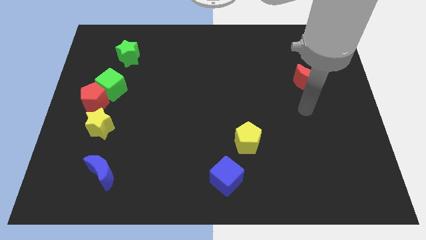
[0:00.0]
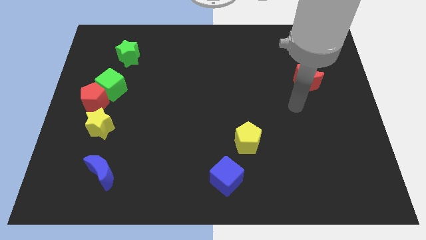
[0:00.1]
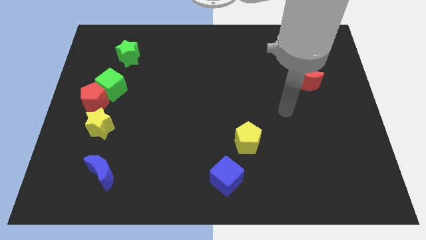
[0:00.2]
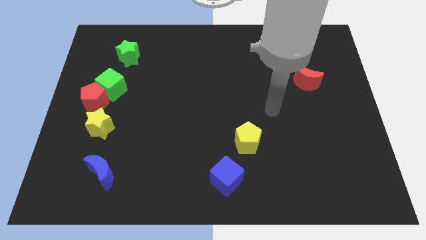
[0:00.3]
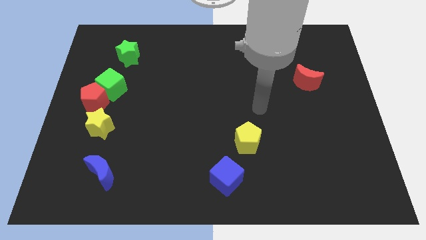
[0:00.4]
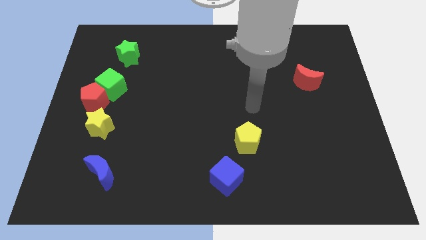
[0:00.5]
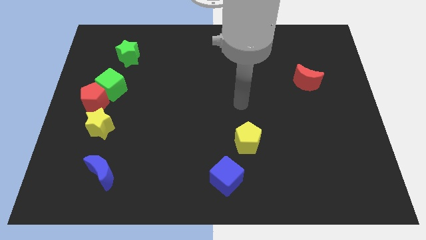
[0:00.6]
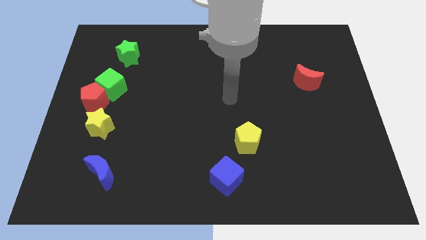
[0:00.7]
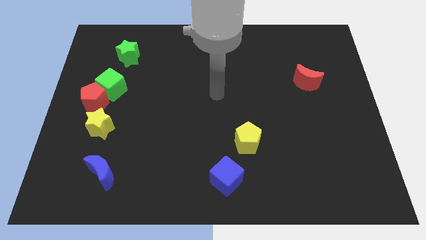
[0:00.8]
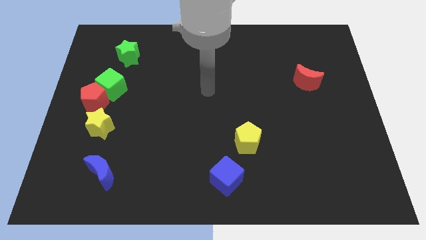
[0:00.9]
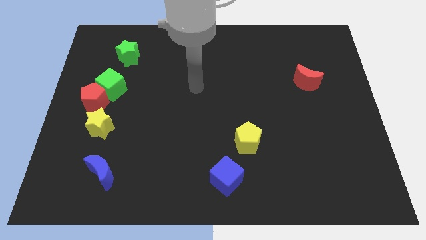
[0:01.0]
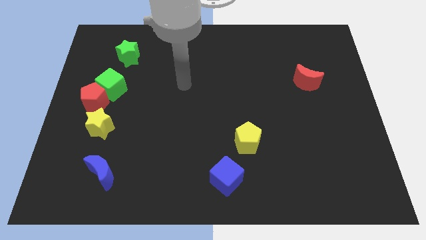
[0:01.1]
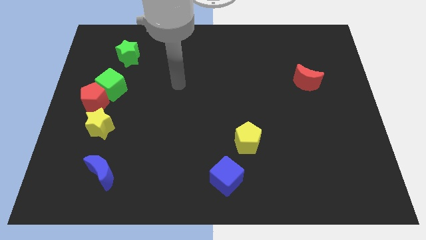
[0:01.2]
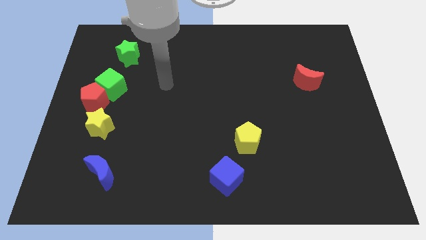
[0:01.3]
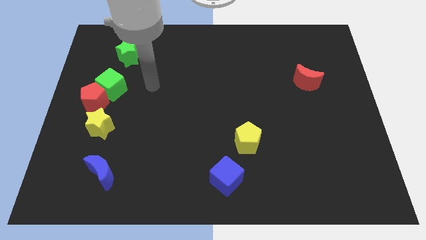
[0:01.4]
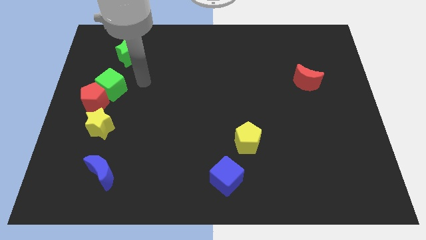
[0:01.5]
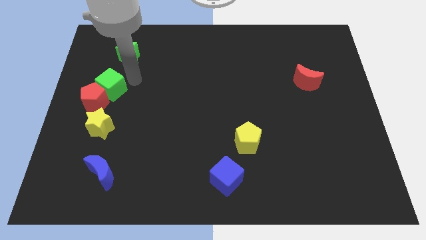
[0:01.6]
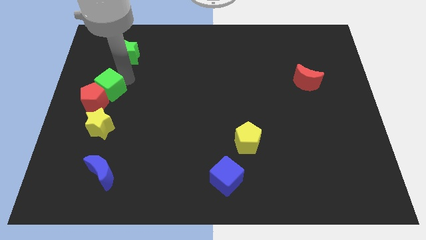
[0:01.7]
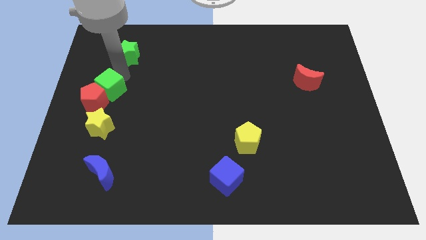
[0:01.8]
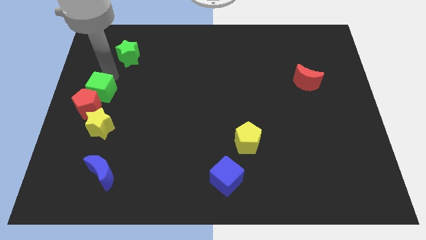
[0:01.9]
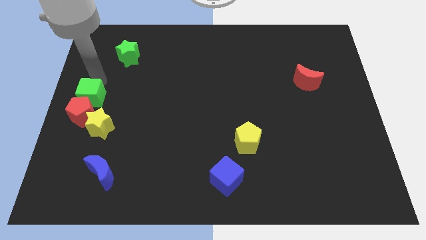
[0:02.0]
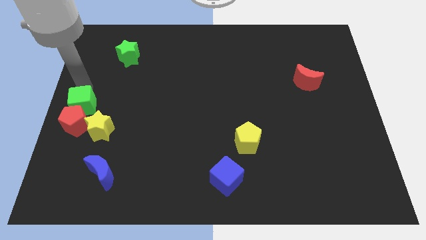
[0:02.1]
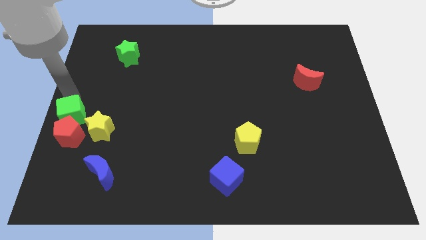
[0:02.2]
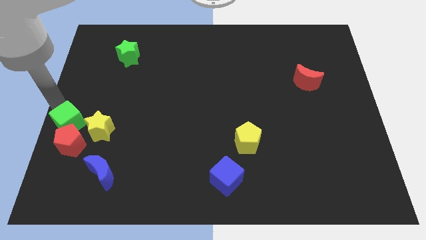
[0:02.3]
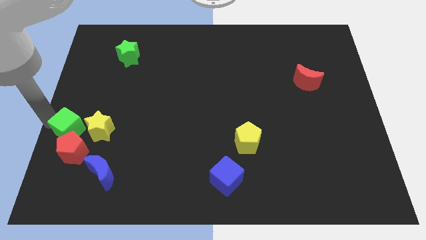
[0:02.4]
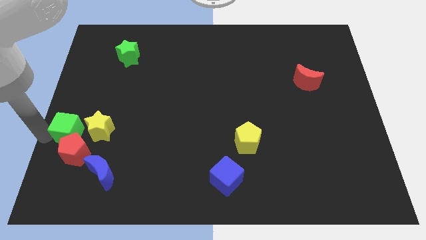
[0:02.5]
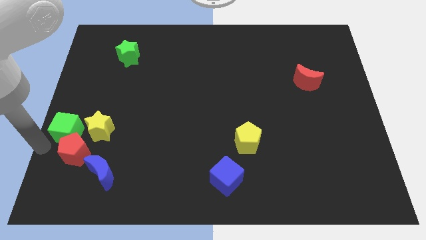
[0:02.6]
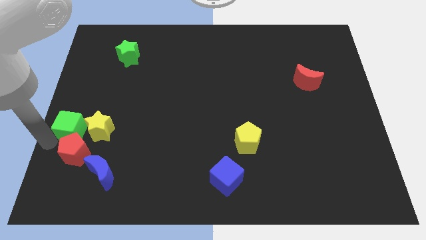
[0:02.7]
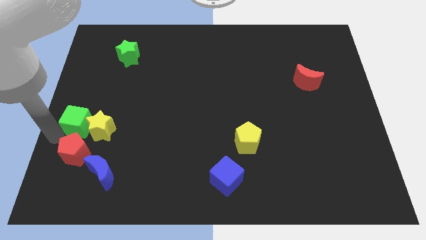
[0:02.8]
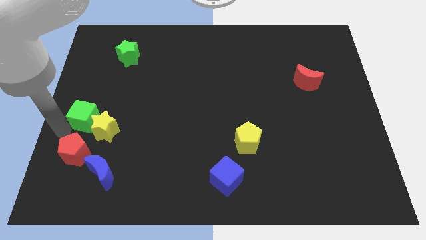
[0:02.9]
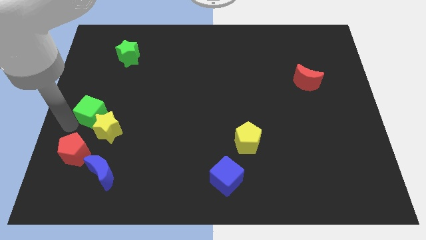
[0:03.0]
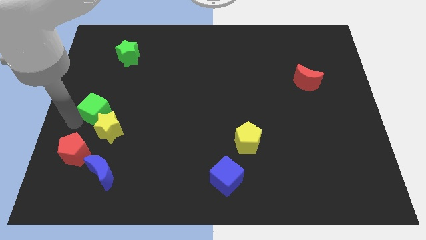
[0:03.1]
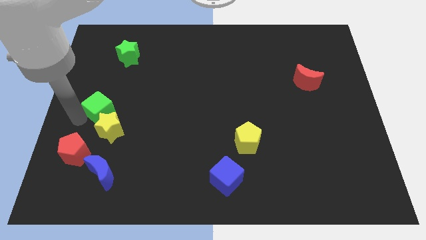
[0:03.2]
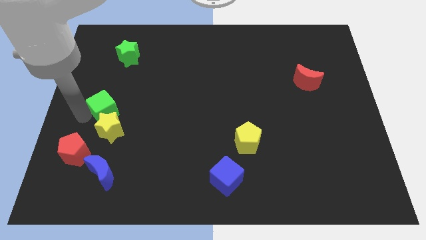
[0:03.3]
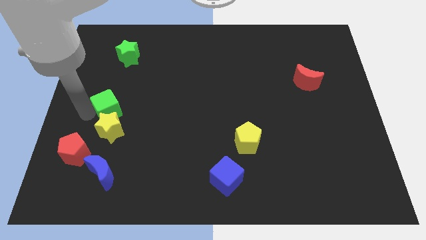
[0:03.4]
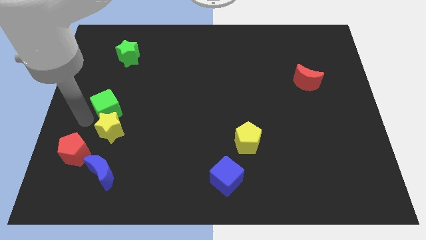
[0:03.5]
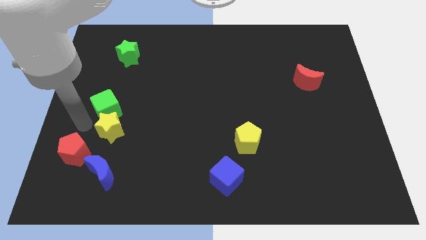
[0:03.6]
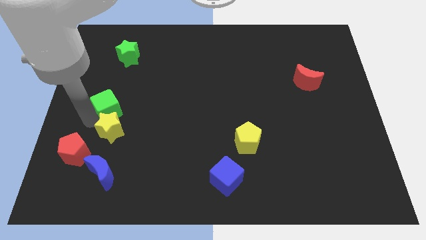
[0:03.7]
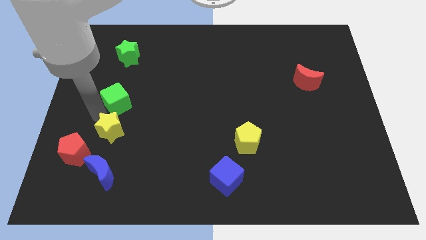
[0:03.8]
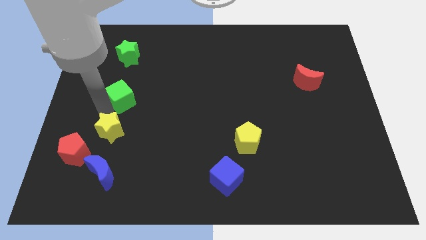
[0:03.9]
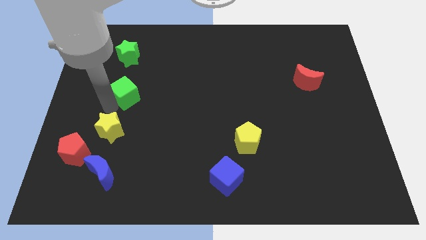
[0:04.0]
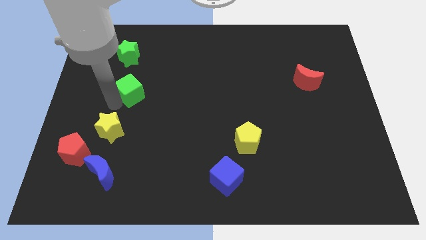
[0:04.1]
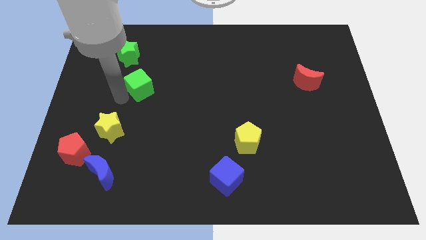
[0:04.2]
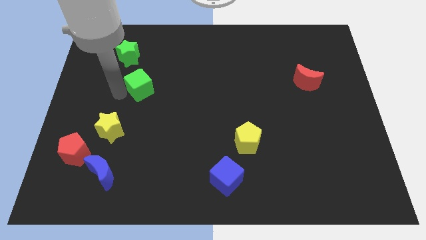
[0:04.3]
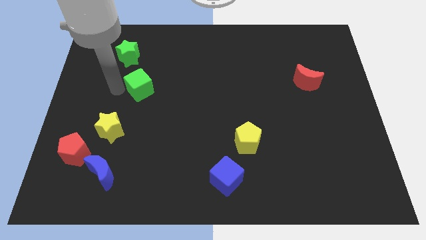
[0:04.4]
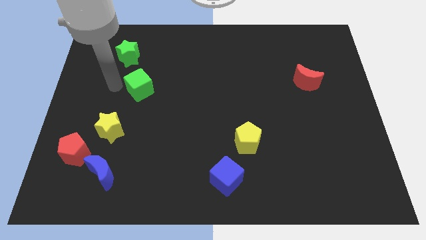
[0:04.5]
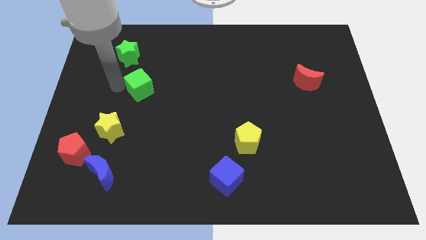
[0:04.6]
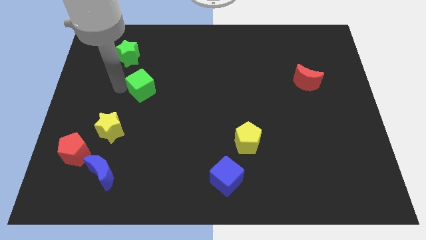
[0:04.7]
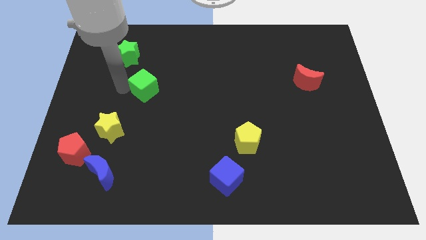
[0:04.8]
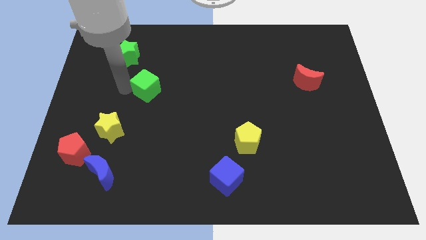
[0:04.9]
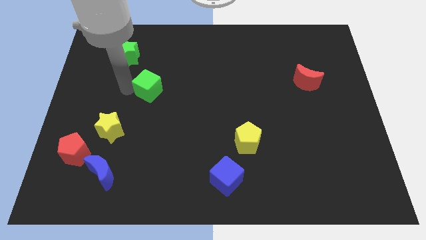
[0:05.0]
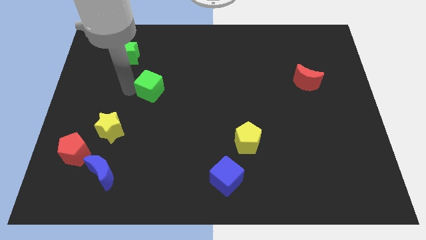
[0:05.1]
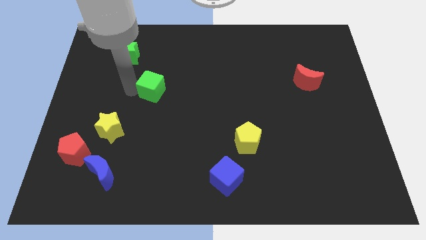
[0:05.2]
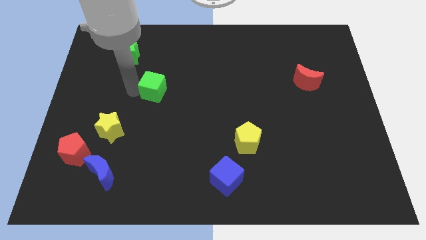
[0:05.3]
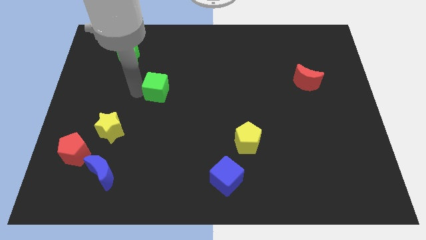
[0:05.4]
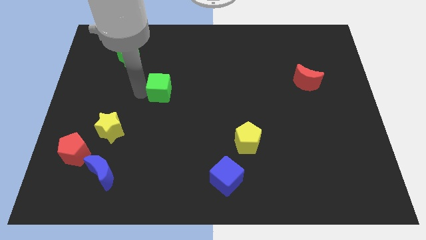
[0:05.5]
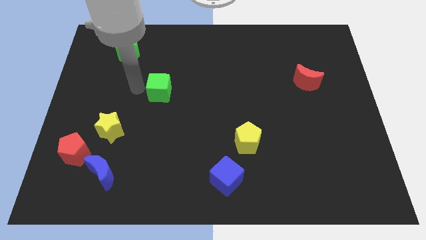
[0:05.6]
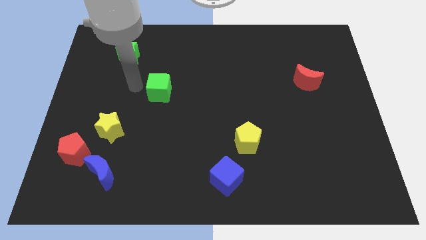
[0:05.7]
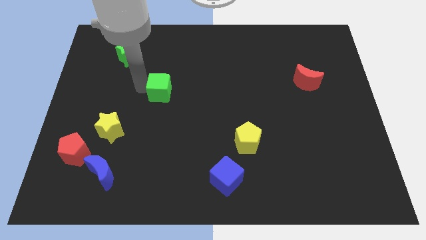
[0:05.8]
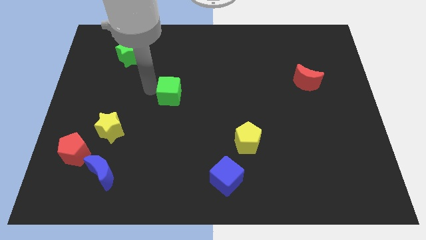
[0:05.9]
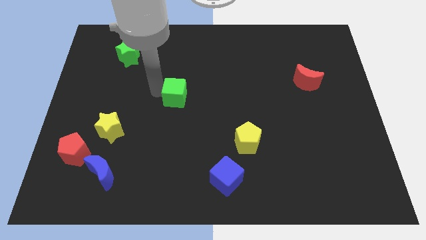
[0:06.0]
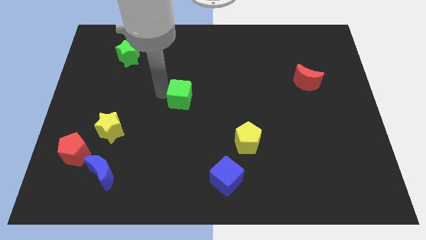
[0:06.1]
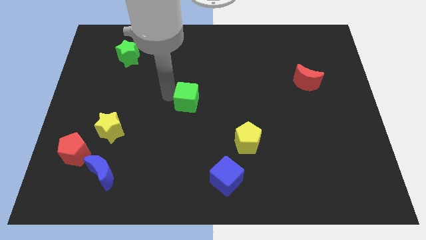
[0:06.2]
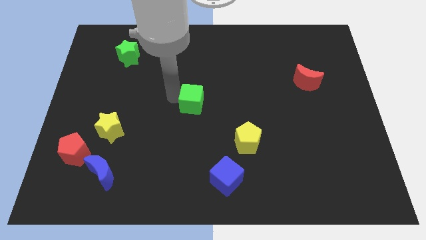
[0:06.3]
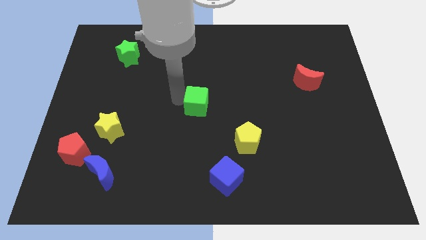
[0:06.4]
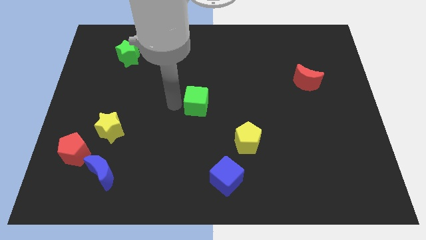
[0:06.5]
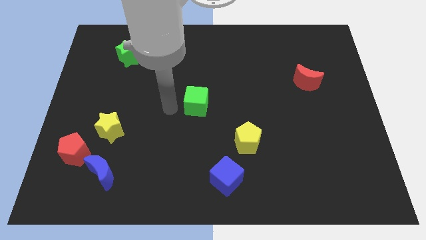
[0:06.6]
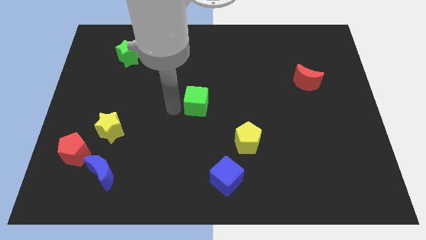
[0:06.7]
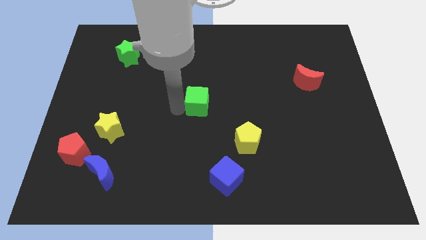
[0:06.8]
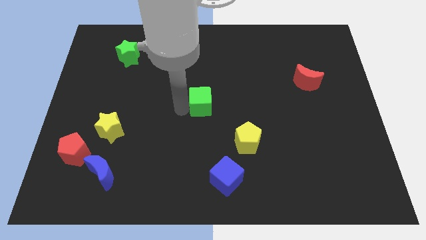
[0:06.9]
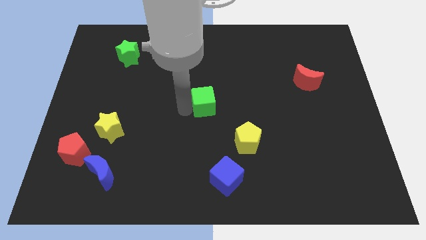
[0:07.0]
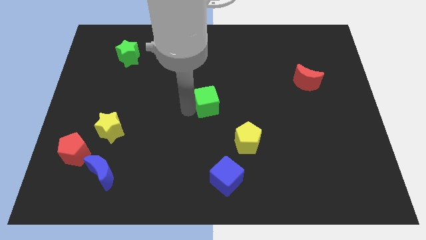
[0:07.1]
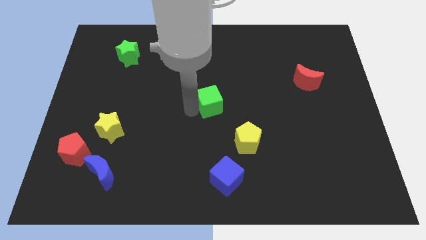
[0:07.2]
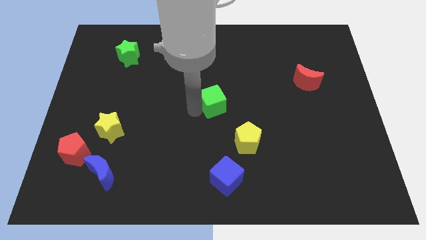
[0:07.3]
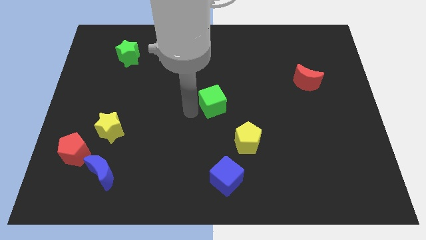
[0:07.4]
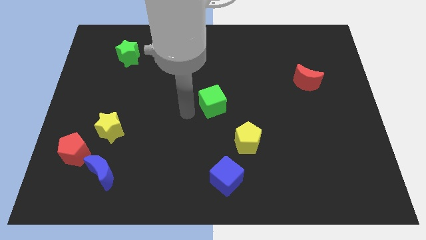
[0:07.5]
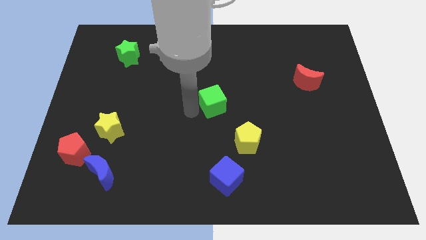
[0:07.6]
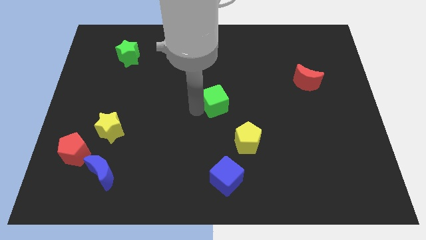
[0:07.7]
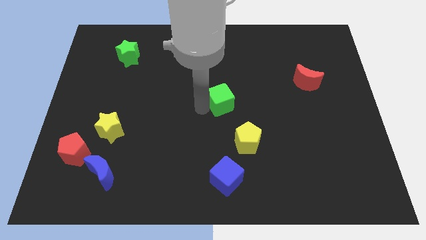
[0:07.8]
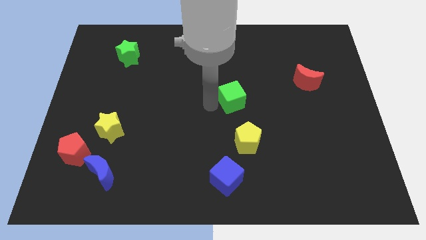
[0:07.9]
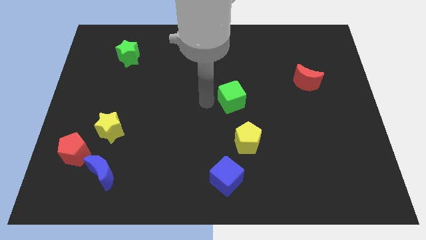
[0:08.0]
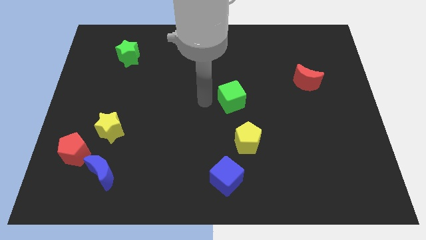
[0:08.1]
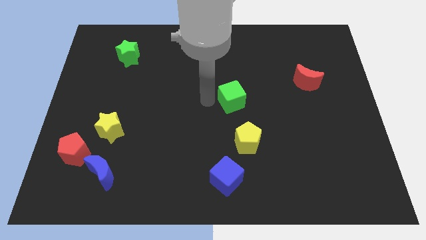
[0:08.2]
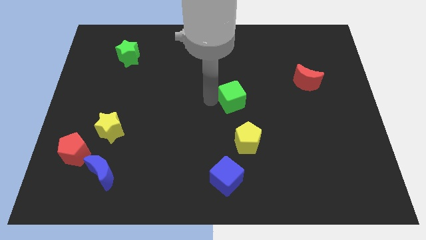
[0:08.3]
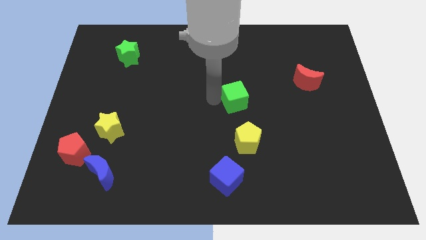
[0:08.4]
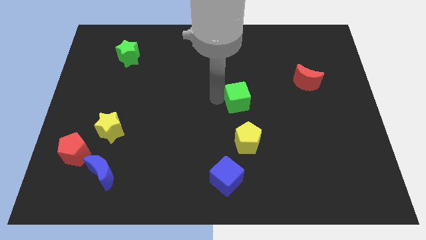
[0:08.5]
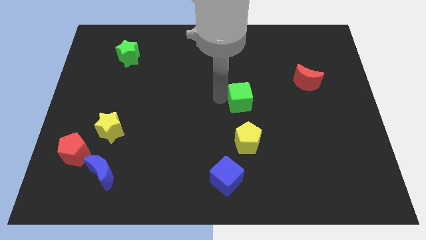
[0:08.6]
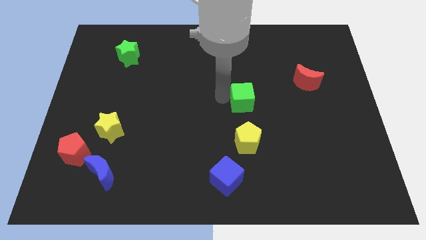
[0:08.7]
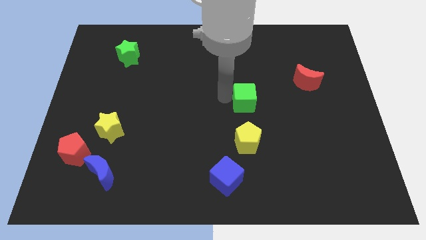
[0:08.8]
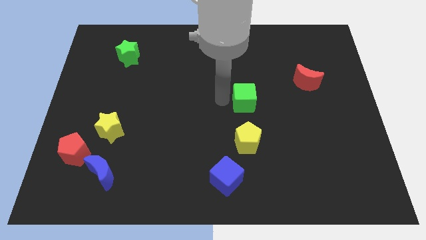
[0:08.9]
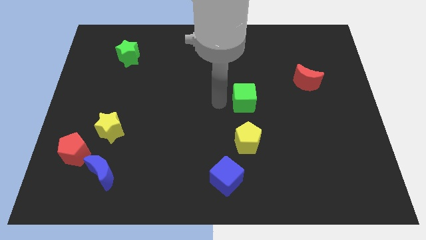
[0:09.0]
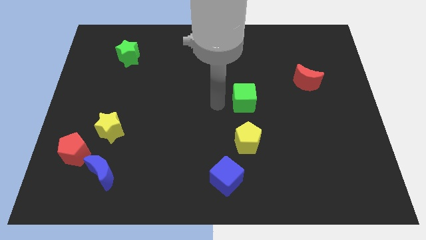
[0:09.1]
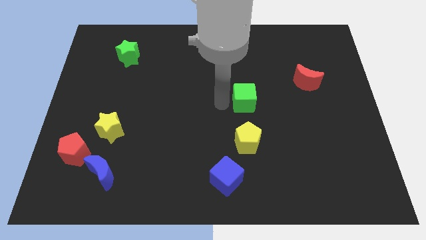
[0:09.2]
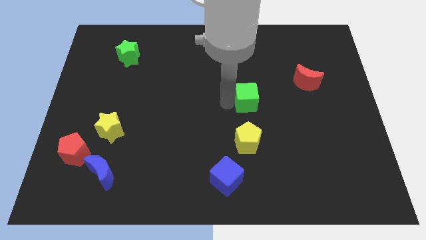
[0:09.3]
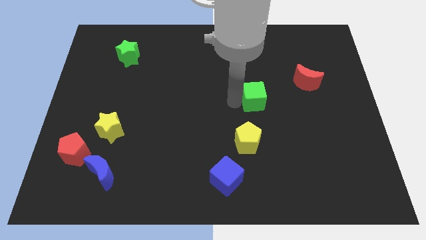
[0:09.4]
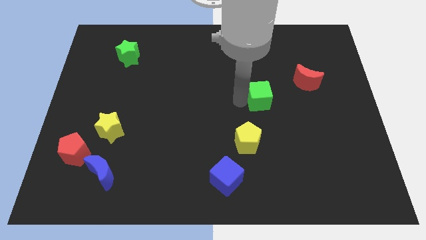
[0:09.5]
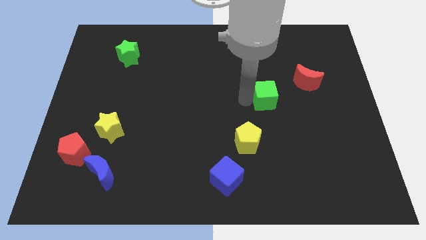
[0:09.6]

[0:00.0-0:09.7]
put the green cube to the bottom left side of the red moon
